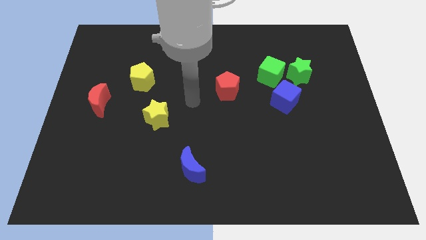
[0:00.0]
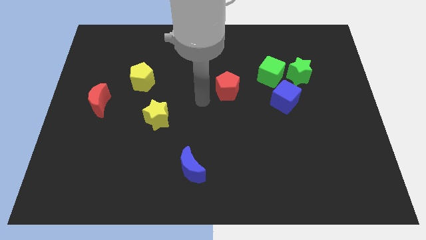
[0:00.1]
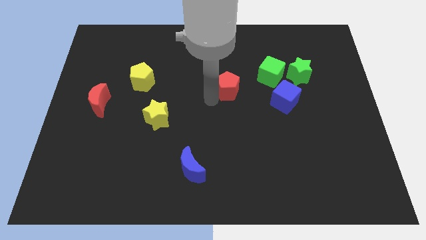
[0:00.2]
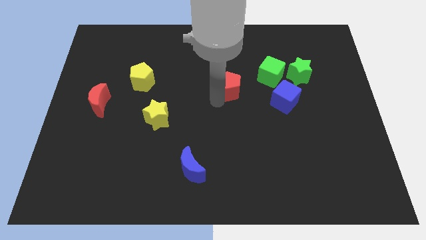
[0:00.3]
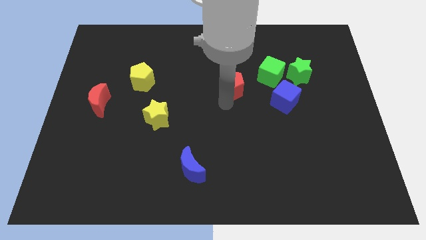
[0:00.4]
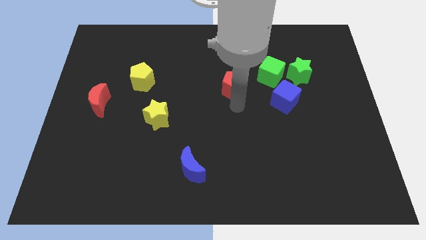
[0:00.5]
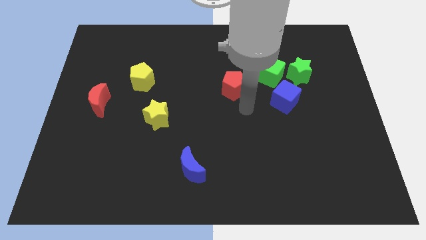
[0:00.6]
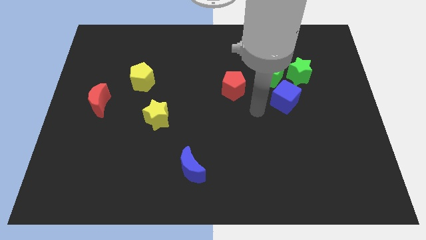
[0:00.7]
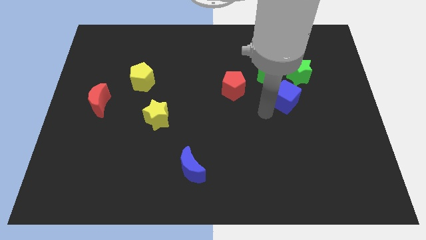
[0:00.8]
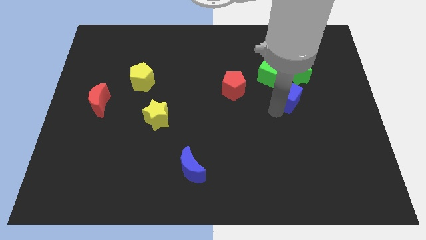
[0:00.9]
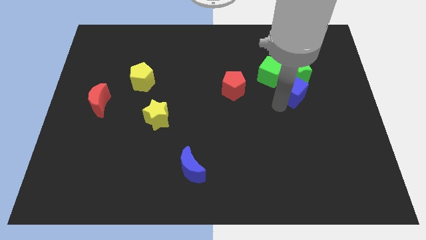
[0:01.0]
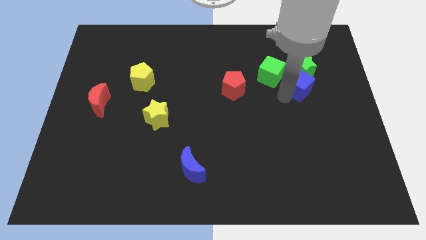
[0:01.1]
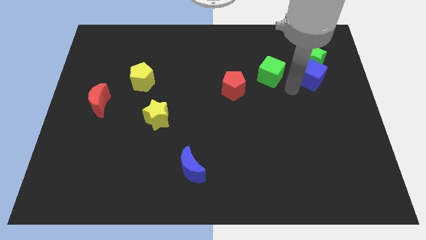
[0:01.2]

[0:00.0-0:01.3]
separate the green cube from the green star and blue cube

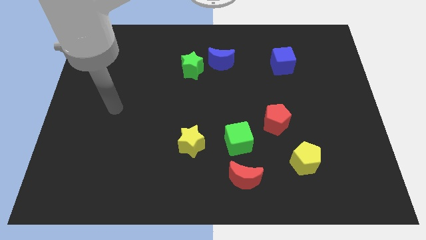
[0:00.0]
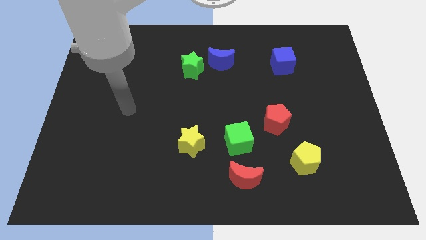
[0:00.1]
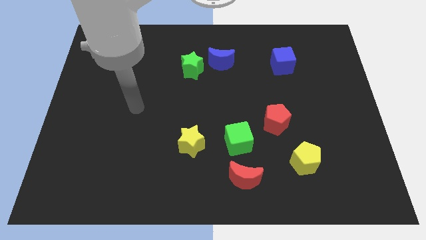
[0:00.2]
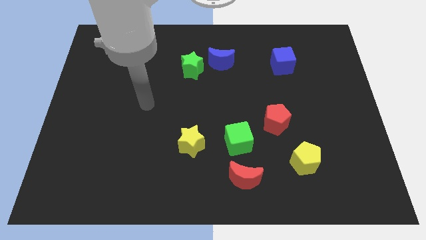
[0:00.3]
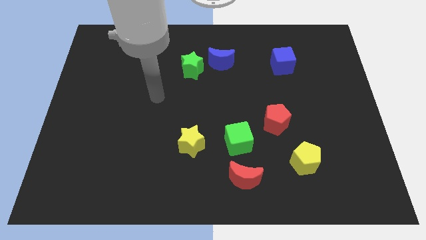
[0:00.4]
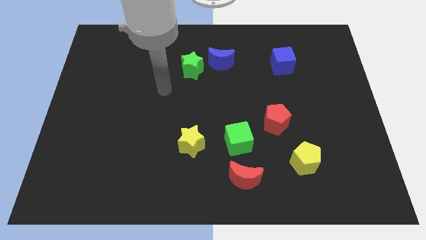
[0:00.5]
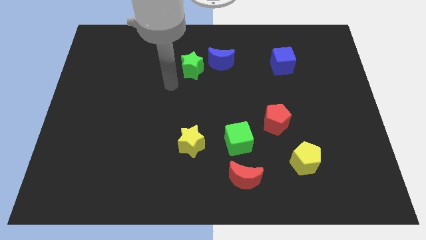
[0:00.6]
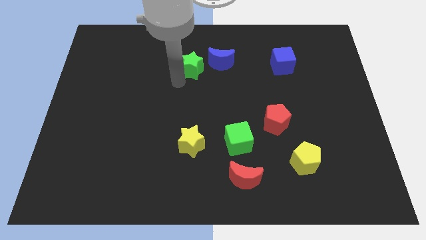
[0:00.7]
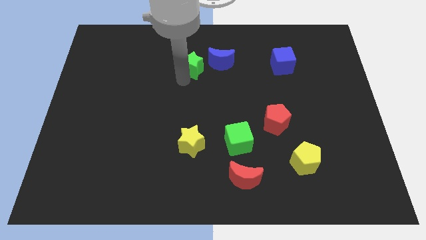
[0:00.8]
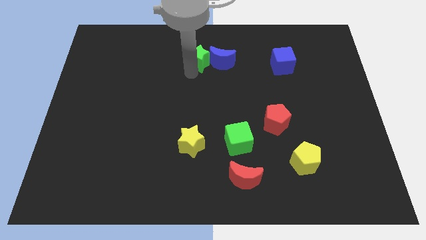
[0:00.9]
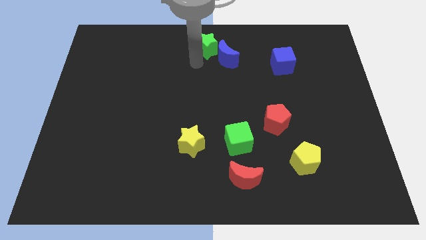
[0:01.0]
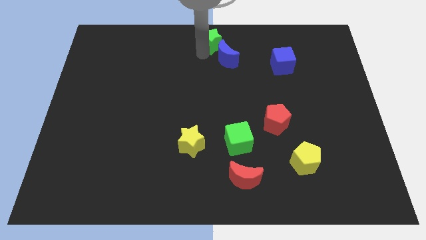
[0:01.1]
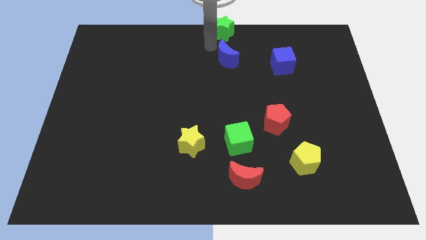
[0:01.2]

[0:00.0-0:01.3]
pull the blue moon apart from the green star

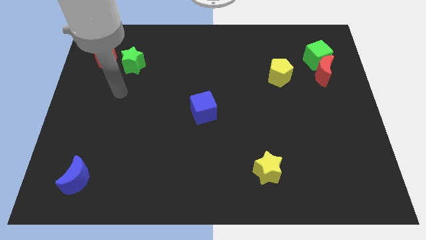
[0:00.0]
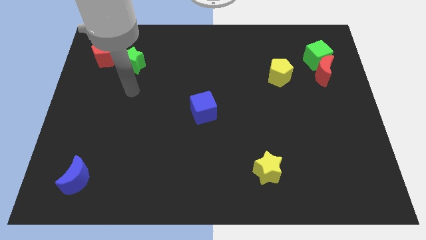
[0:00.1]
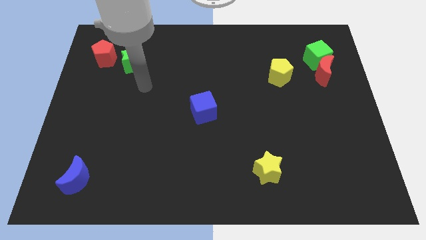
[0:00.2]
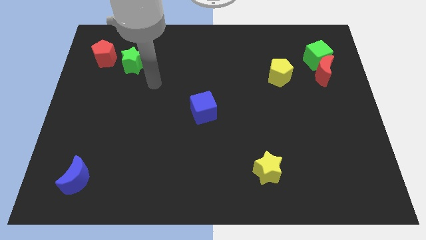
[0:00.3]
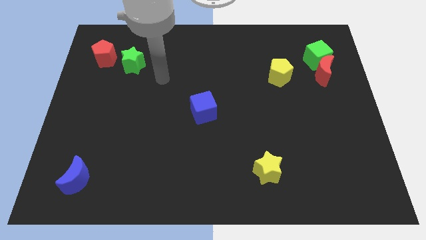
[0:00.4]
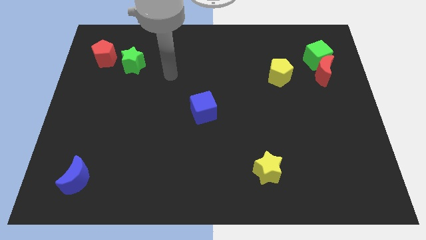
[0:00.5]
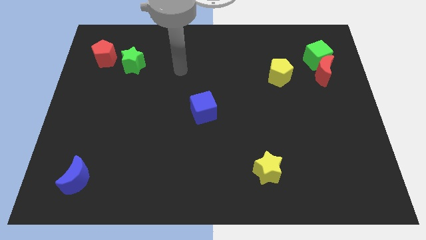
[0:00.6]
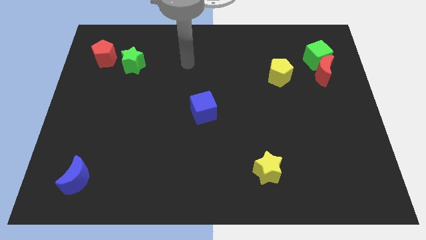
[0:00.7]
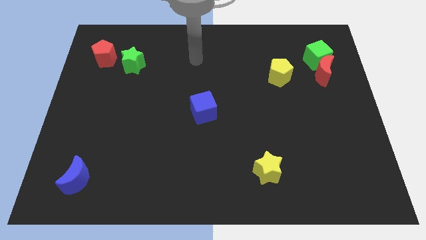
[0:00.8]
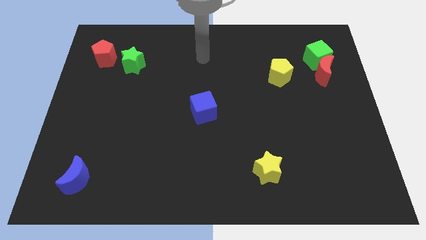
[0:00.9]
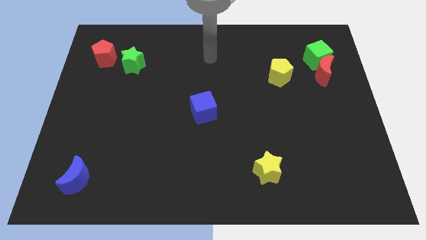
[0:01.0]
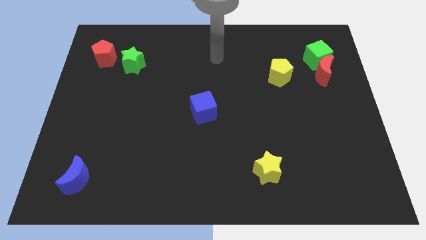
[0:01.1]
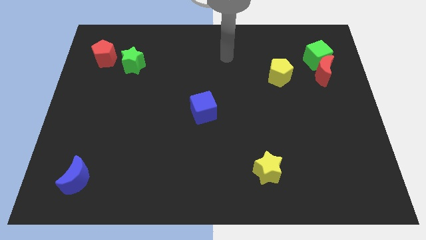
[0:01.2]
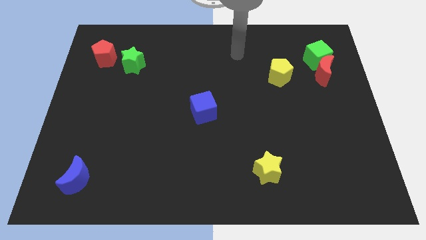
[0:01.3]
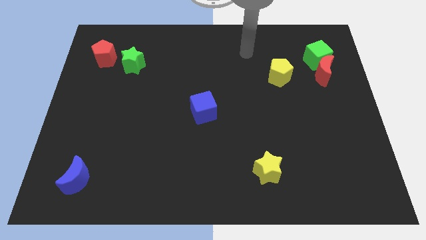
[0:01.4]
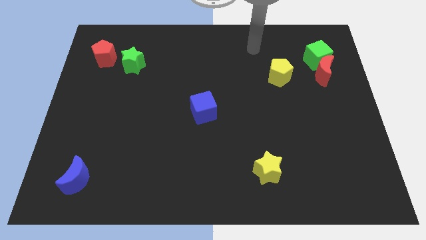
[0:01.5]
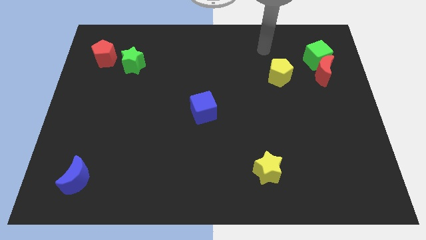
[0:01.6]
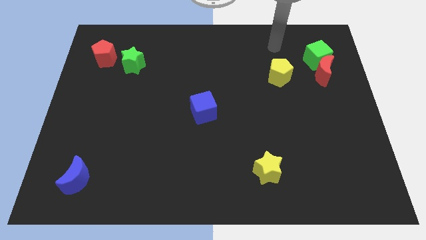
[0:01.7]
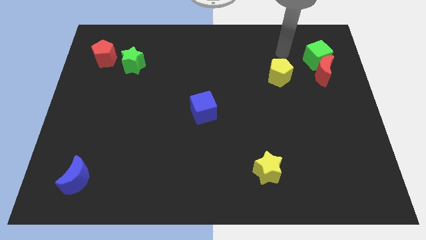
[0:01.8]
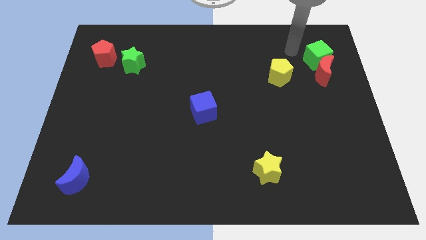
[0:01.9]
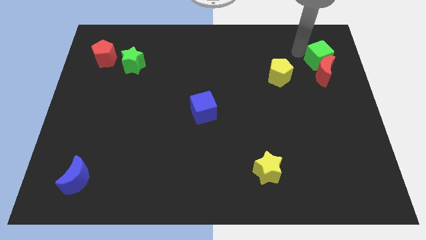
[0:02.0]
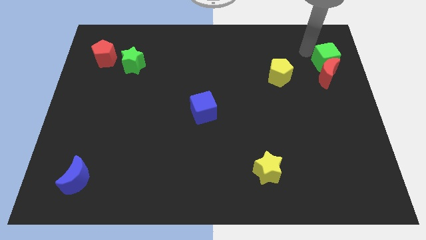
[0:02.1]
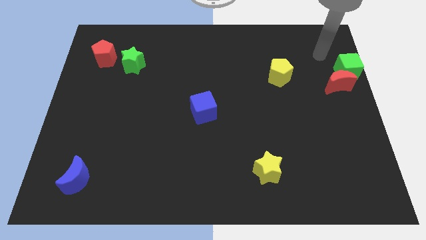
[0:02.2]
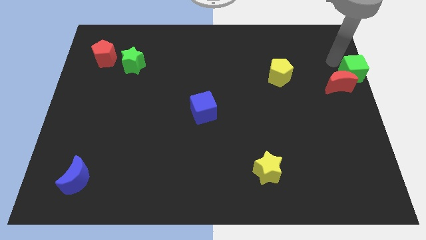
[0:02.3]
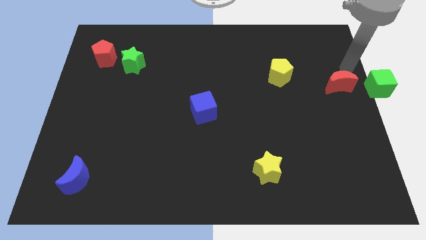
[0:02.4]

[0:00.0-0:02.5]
move the red moon away from the green cube

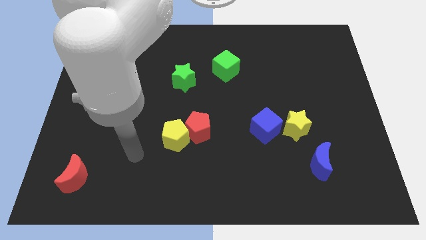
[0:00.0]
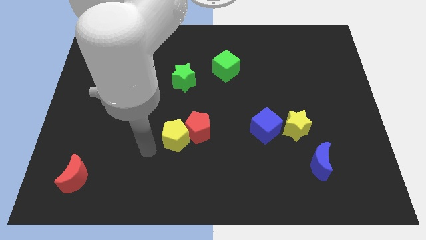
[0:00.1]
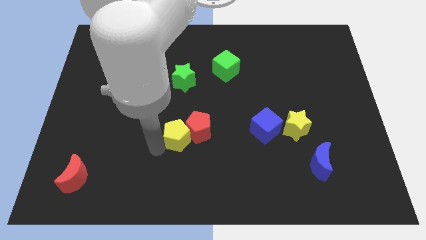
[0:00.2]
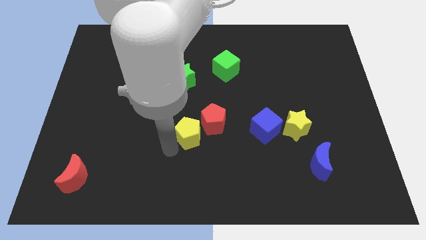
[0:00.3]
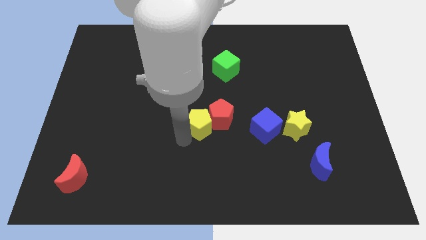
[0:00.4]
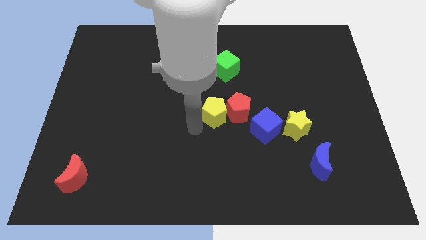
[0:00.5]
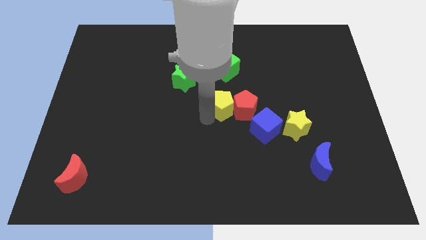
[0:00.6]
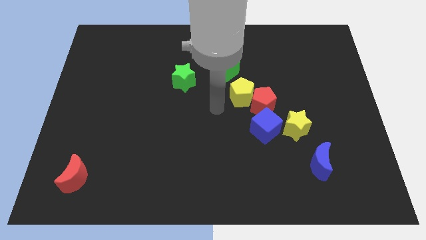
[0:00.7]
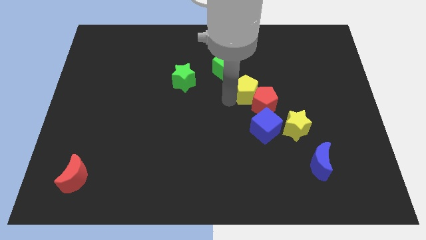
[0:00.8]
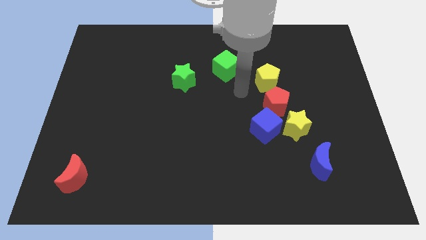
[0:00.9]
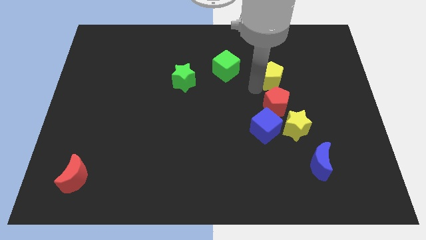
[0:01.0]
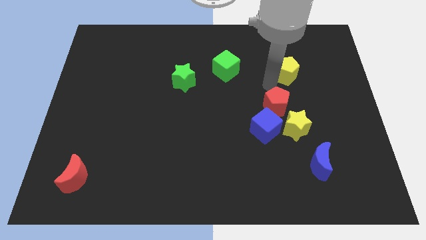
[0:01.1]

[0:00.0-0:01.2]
pull the red pentagon apart from the yellow pentagon

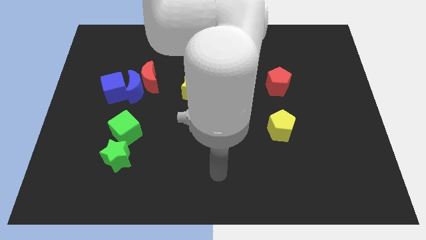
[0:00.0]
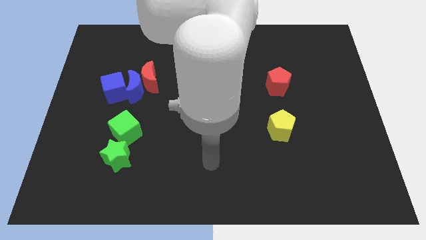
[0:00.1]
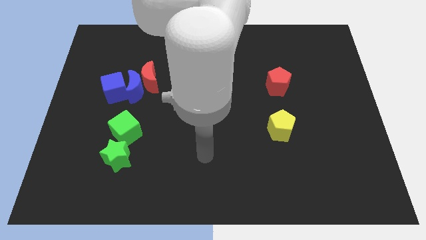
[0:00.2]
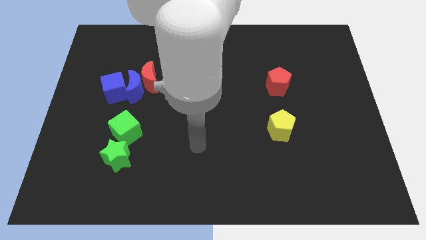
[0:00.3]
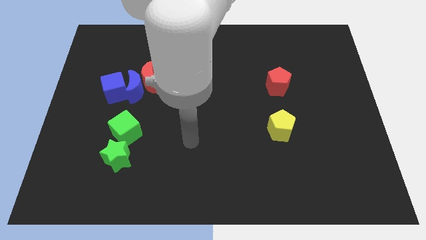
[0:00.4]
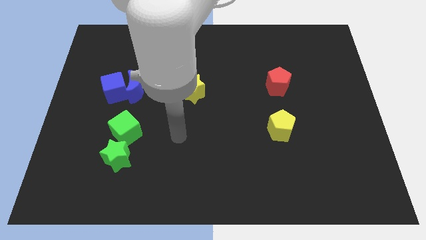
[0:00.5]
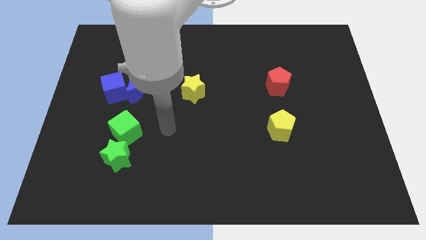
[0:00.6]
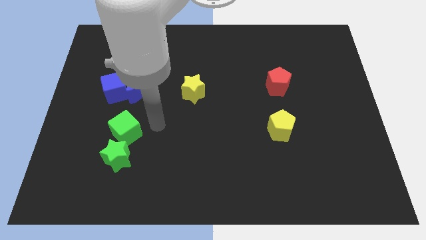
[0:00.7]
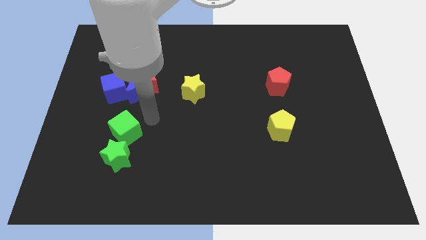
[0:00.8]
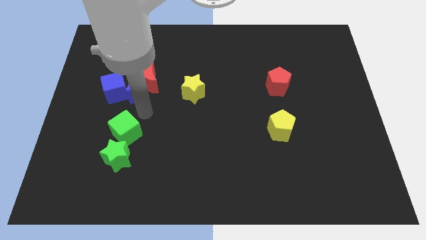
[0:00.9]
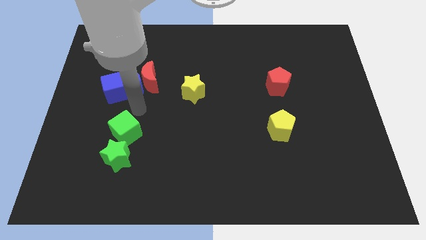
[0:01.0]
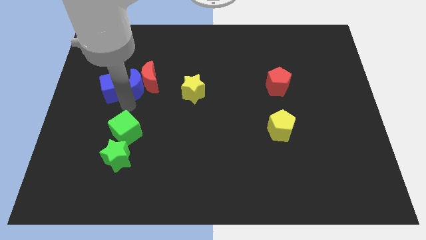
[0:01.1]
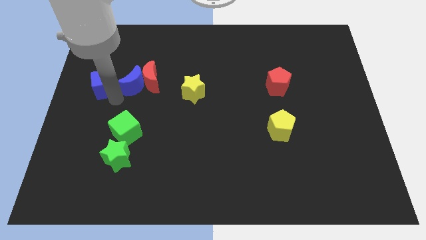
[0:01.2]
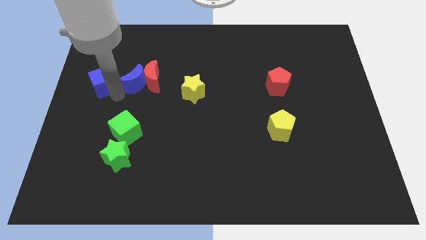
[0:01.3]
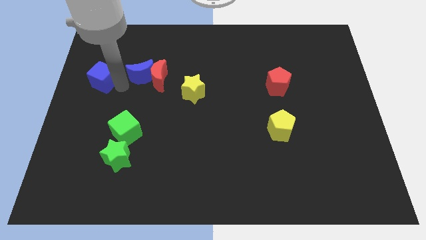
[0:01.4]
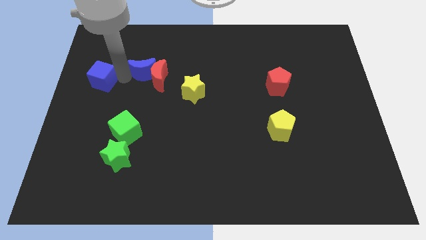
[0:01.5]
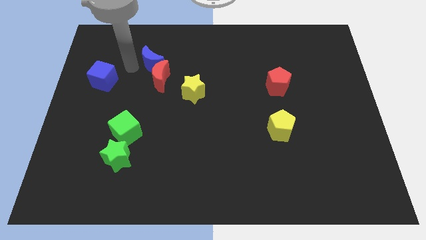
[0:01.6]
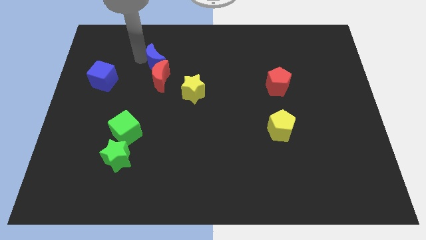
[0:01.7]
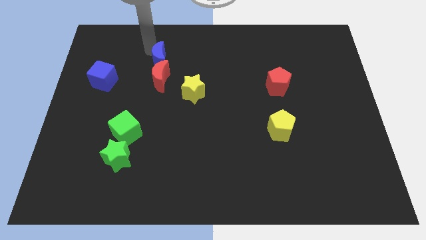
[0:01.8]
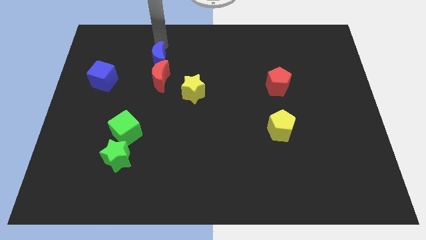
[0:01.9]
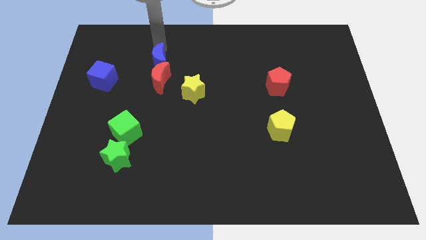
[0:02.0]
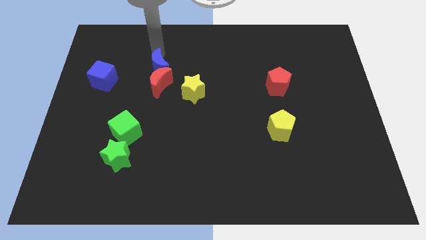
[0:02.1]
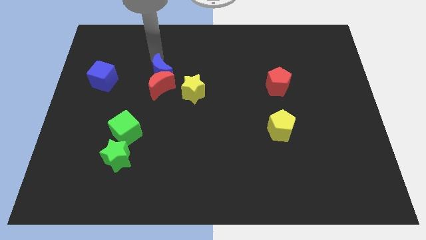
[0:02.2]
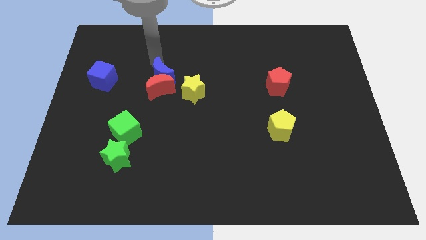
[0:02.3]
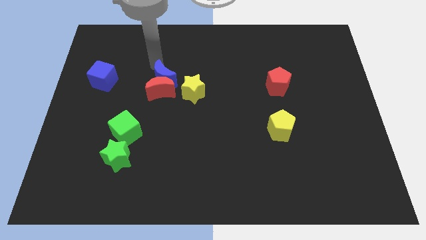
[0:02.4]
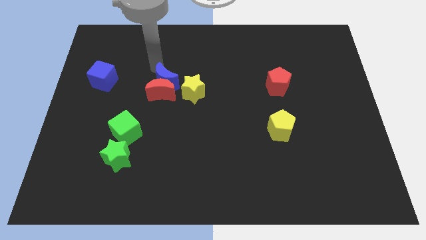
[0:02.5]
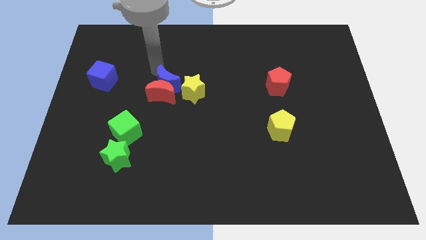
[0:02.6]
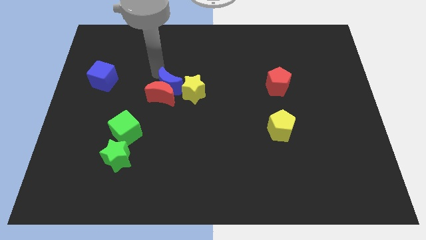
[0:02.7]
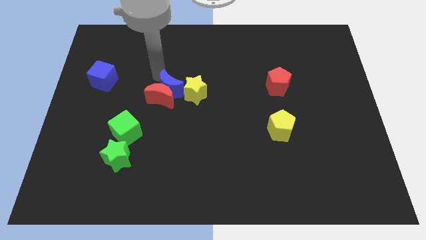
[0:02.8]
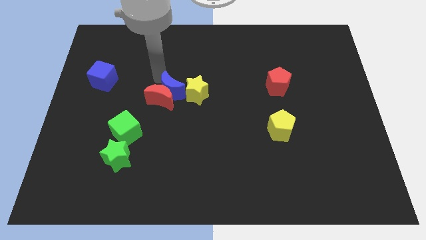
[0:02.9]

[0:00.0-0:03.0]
move the blue moon away from the red moon and blue cube
